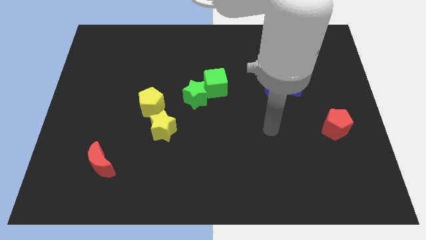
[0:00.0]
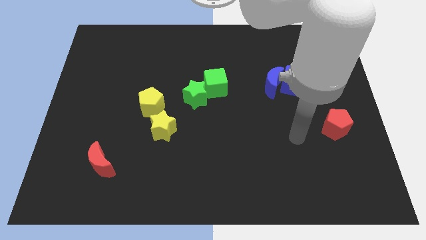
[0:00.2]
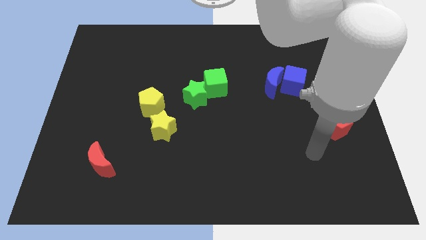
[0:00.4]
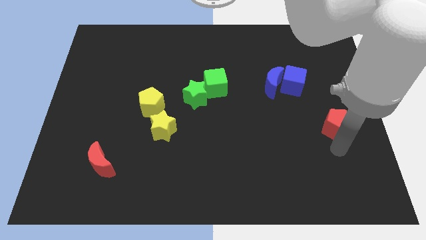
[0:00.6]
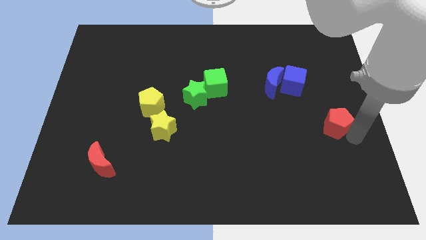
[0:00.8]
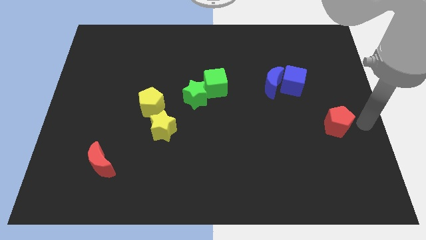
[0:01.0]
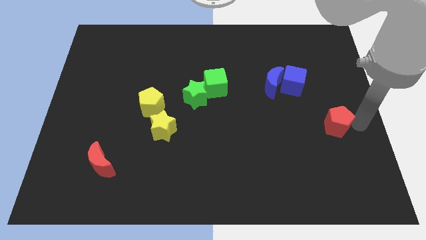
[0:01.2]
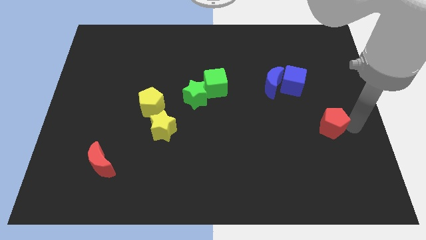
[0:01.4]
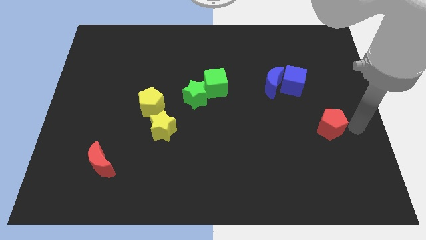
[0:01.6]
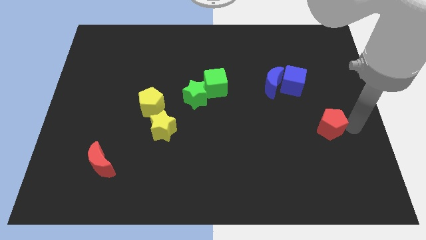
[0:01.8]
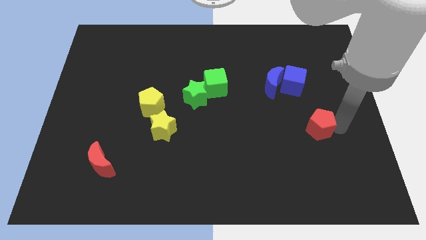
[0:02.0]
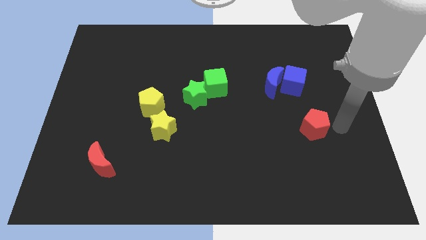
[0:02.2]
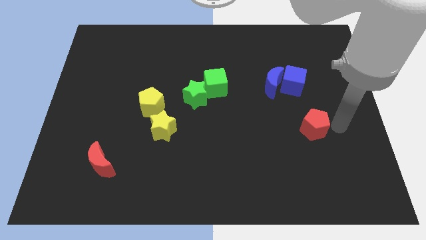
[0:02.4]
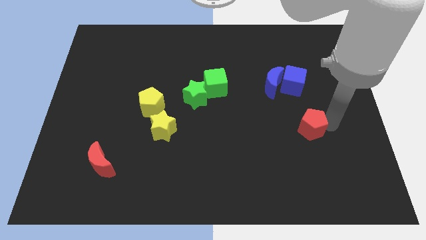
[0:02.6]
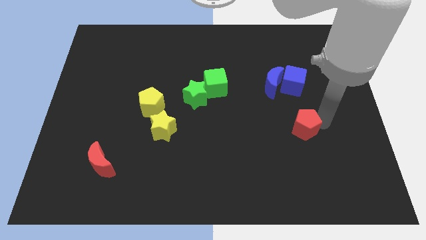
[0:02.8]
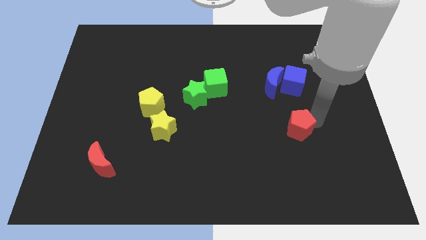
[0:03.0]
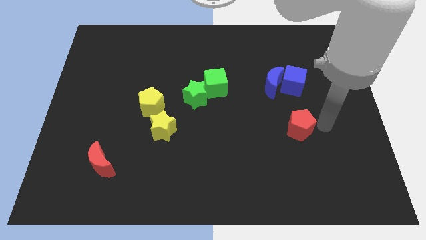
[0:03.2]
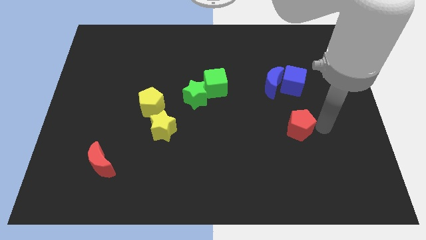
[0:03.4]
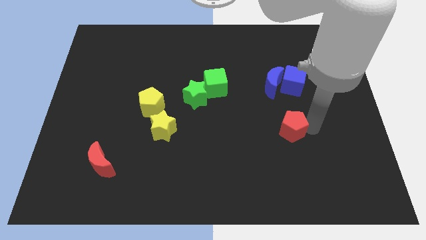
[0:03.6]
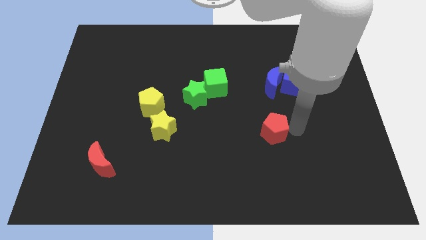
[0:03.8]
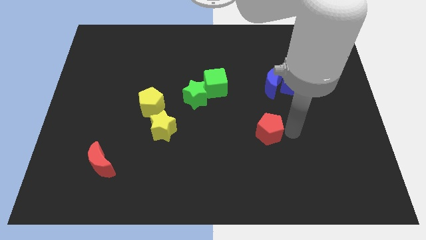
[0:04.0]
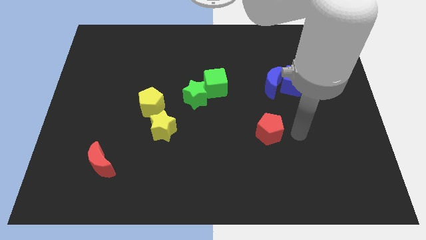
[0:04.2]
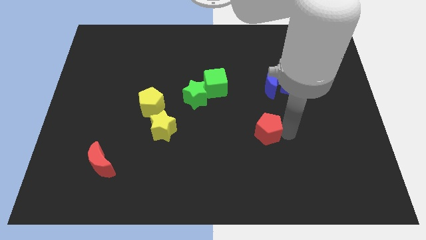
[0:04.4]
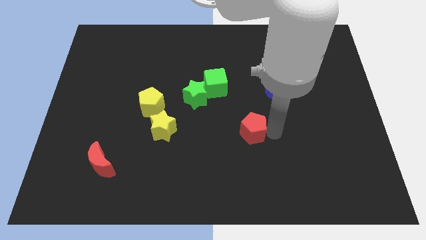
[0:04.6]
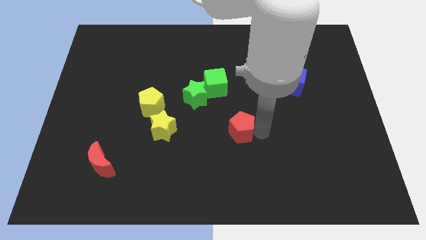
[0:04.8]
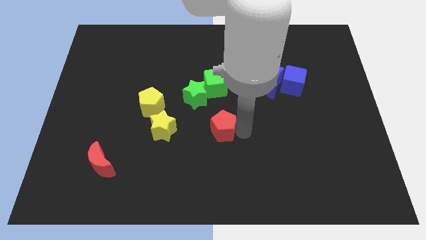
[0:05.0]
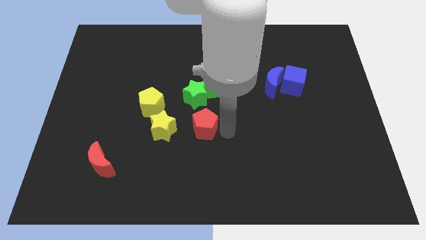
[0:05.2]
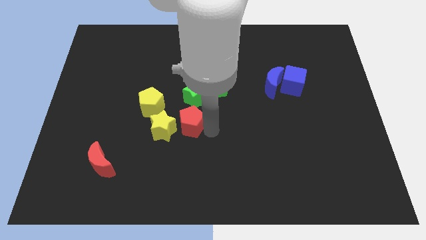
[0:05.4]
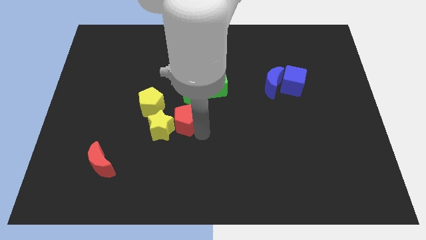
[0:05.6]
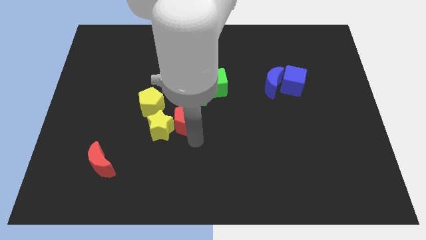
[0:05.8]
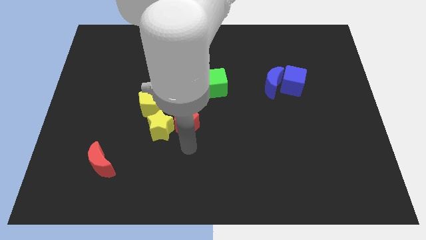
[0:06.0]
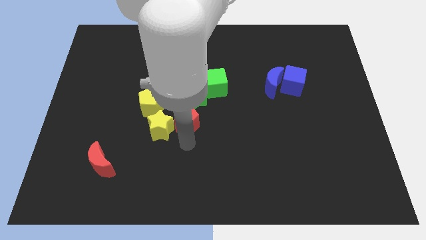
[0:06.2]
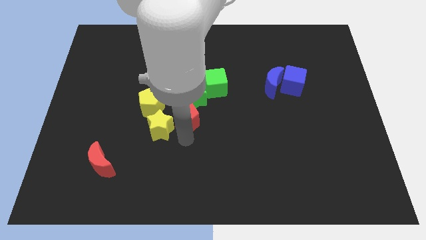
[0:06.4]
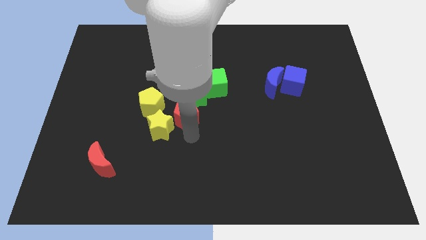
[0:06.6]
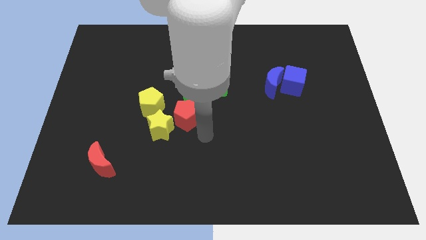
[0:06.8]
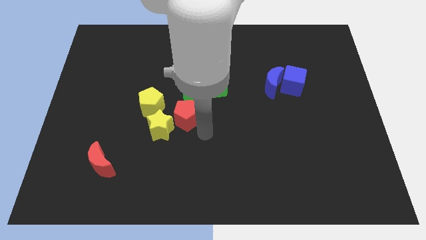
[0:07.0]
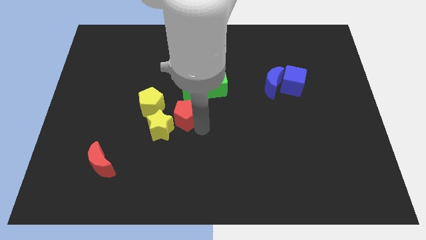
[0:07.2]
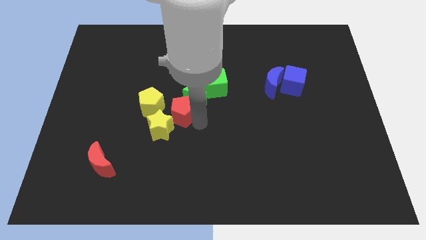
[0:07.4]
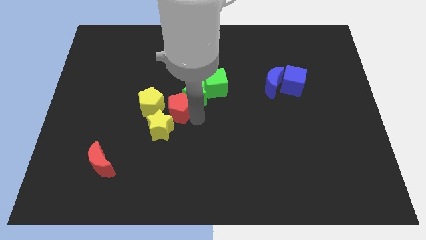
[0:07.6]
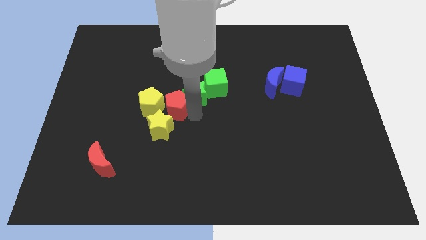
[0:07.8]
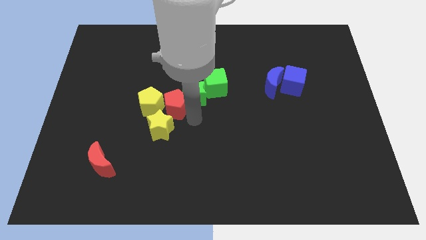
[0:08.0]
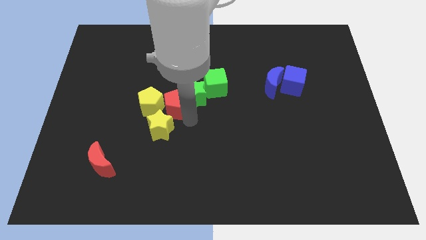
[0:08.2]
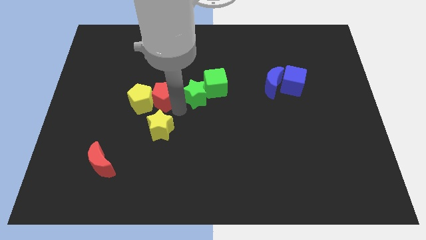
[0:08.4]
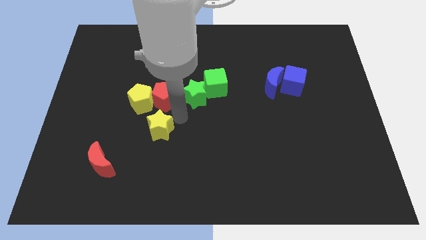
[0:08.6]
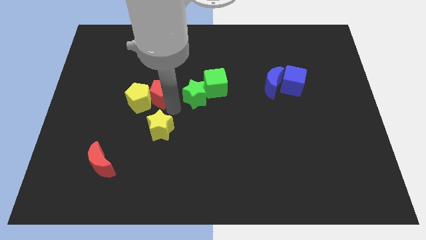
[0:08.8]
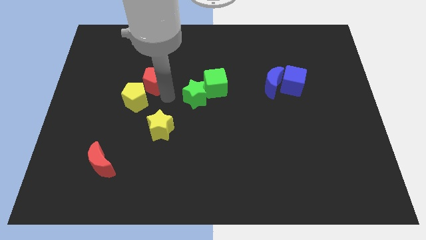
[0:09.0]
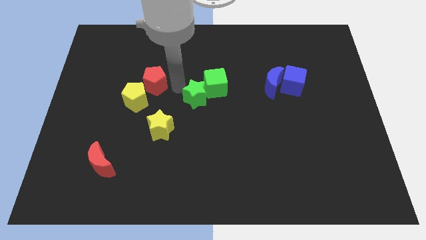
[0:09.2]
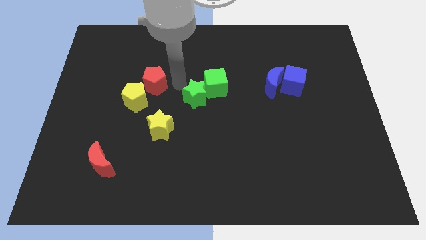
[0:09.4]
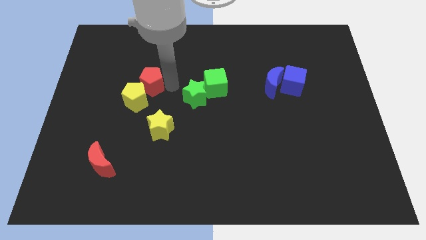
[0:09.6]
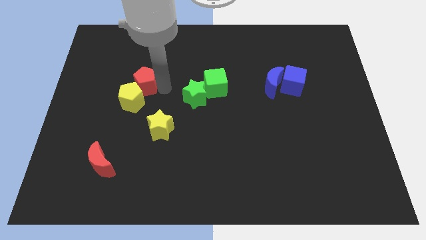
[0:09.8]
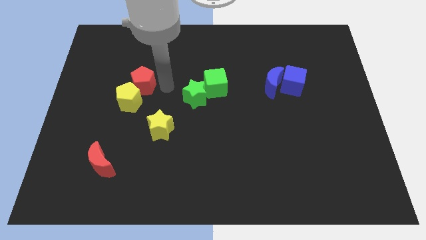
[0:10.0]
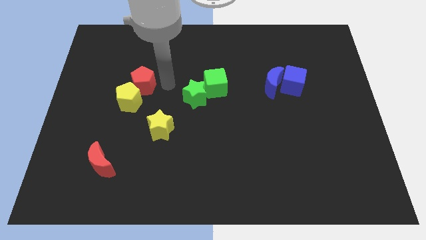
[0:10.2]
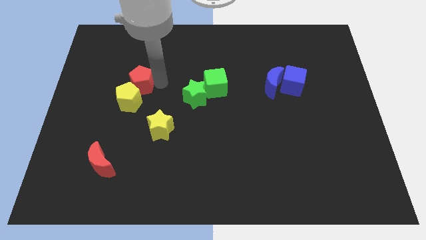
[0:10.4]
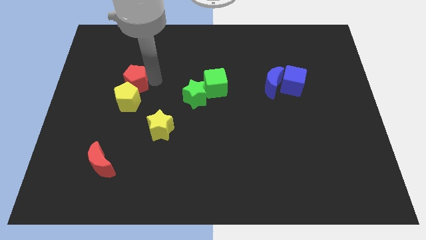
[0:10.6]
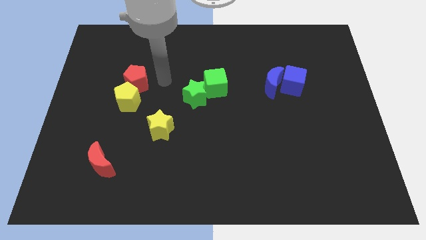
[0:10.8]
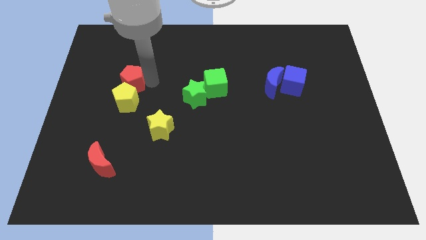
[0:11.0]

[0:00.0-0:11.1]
move the red pentagon to the top left of the yellow pentagon

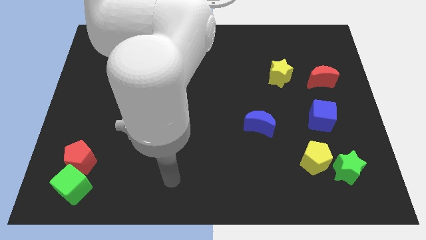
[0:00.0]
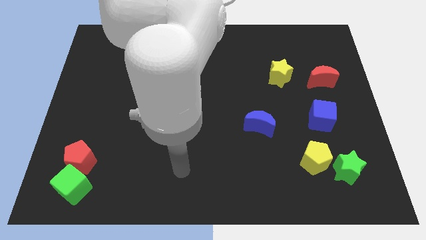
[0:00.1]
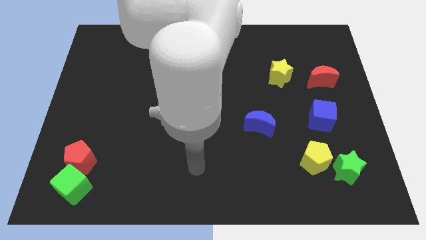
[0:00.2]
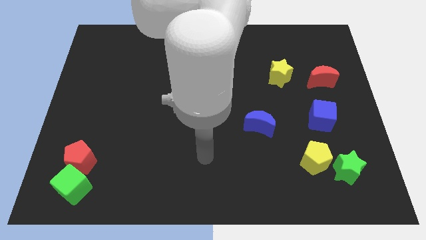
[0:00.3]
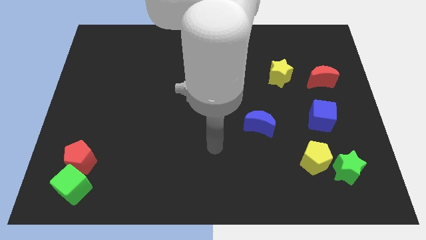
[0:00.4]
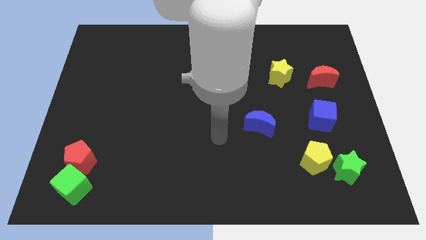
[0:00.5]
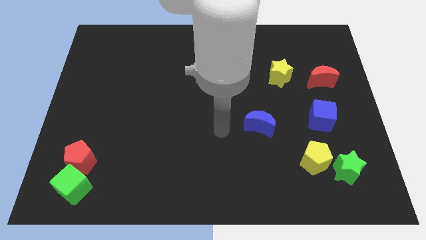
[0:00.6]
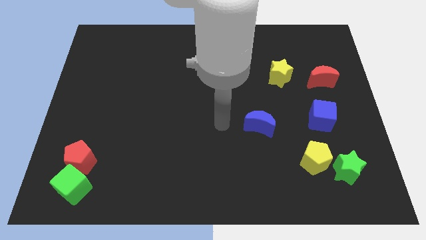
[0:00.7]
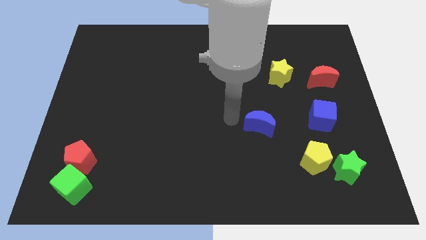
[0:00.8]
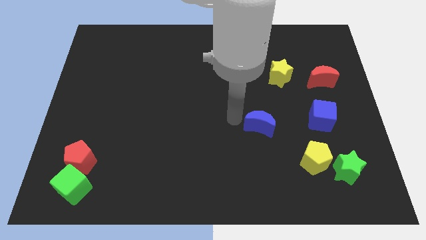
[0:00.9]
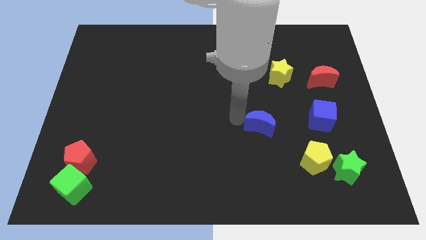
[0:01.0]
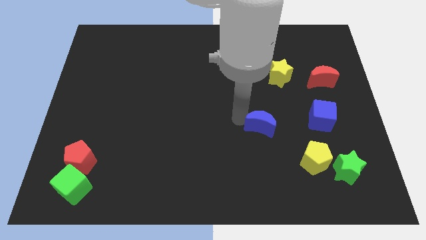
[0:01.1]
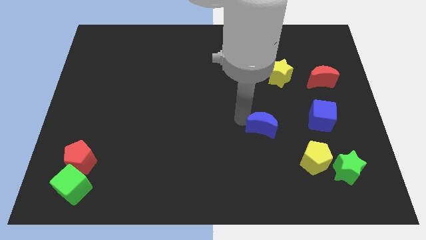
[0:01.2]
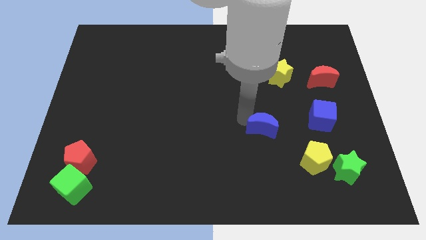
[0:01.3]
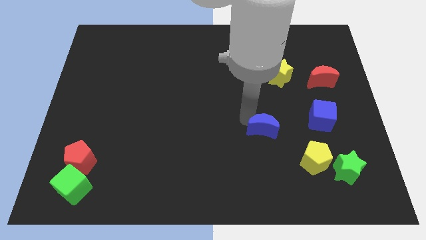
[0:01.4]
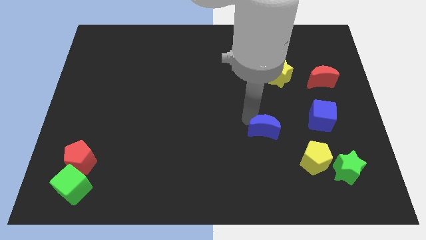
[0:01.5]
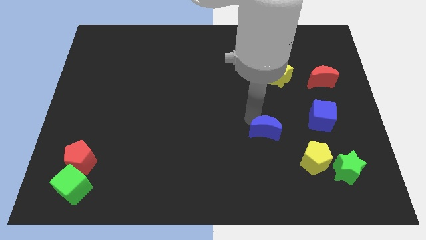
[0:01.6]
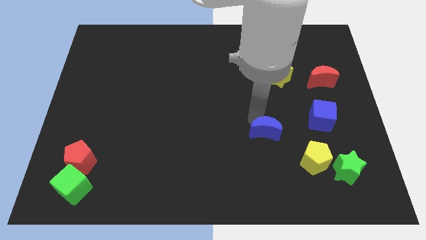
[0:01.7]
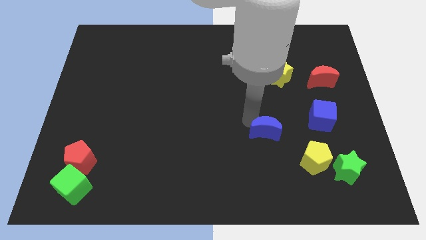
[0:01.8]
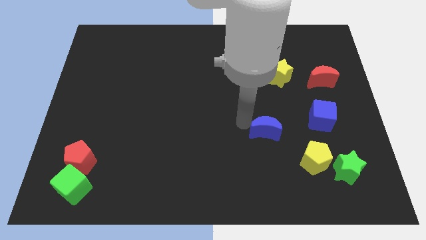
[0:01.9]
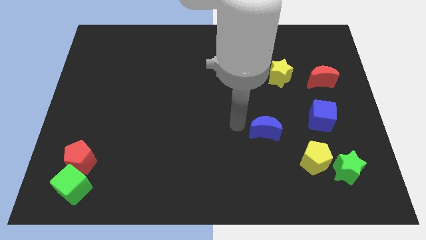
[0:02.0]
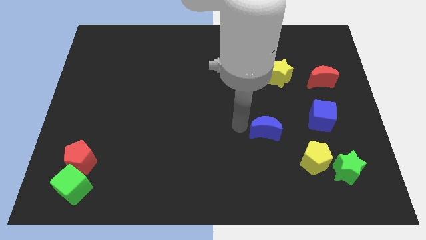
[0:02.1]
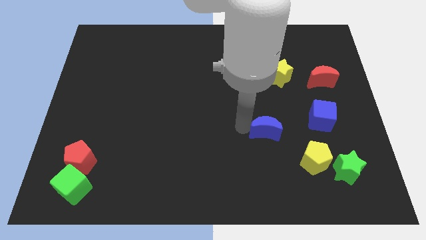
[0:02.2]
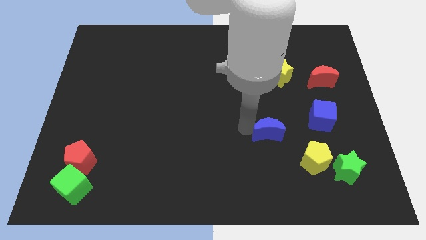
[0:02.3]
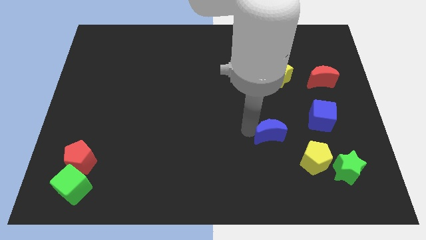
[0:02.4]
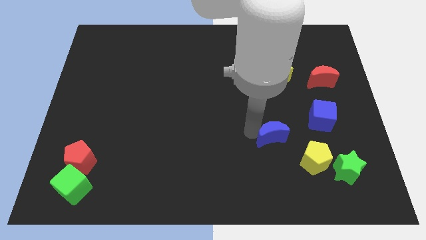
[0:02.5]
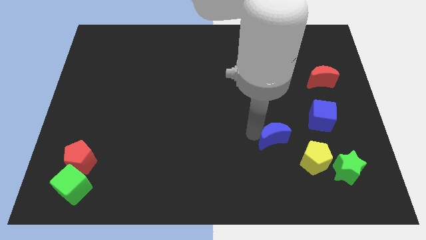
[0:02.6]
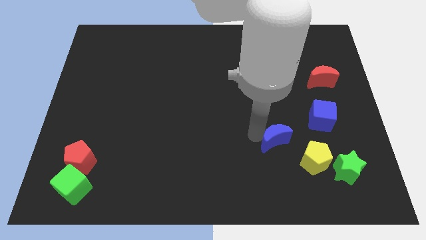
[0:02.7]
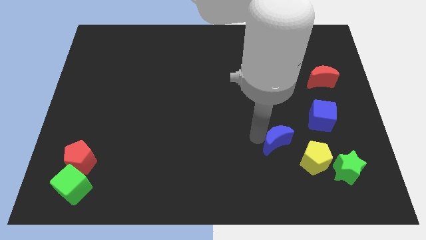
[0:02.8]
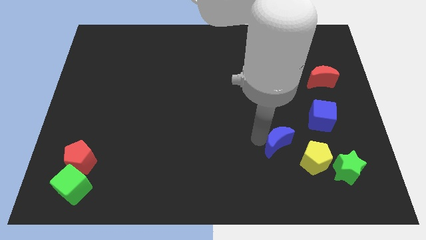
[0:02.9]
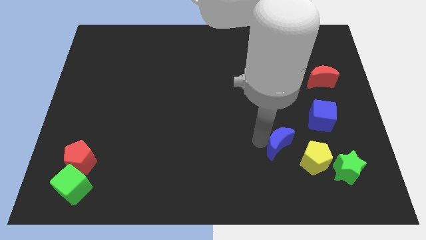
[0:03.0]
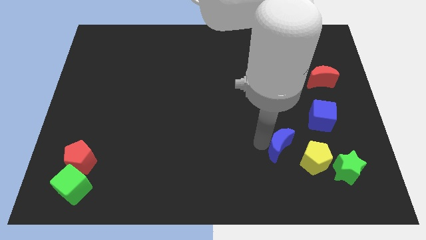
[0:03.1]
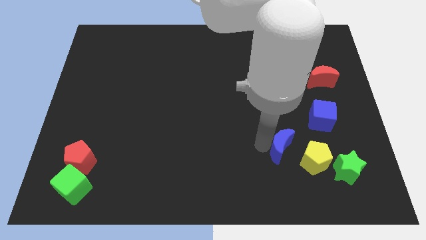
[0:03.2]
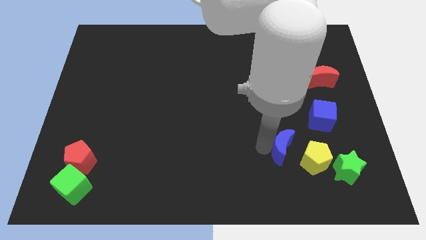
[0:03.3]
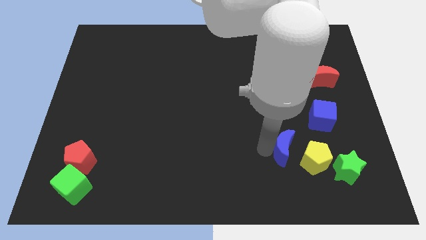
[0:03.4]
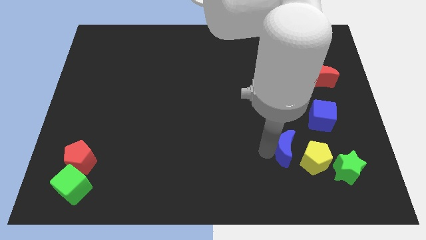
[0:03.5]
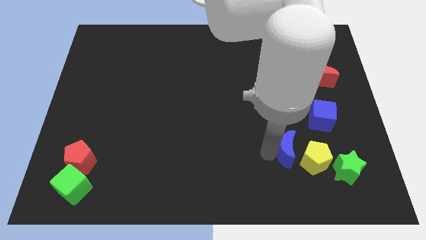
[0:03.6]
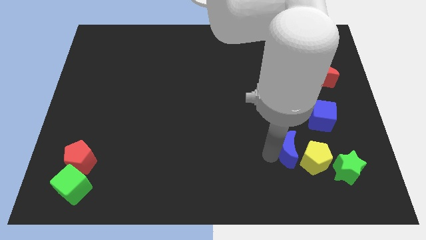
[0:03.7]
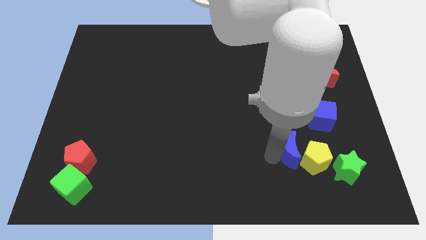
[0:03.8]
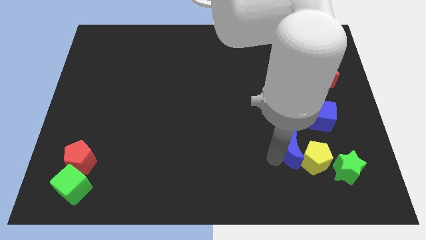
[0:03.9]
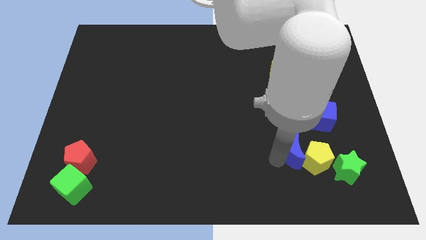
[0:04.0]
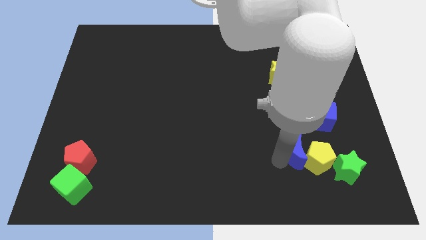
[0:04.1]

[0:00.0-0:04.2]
slide the blue moon to the top left of the green star
